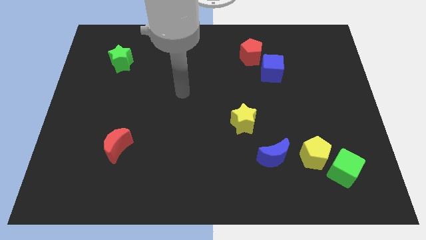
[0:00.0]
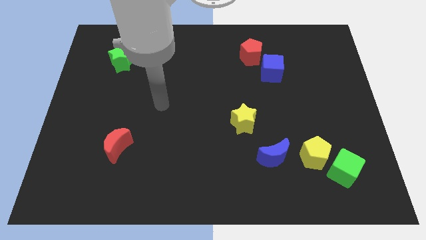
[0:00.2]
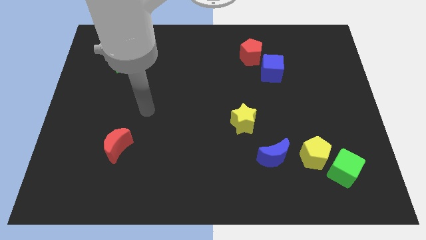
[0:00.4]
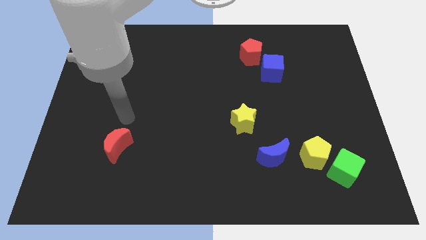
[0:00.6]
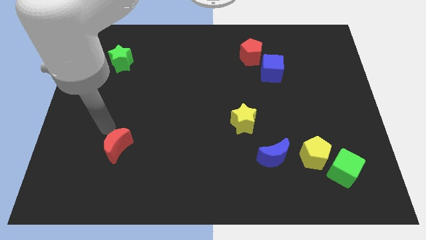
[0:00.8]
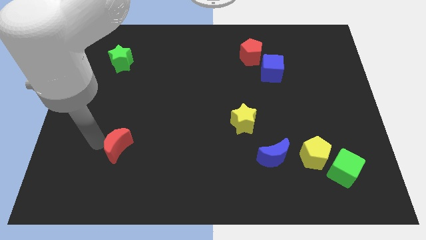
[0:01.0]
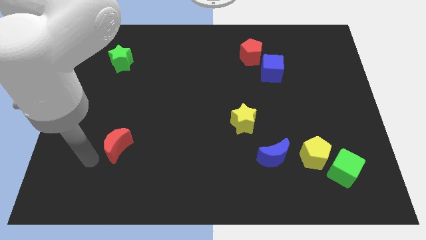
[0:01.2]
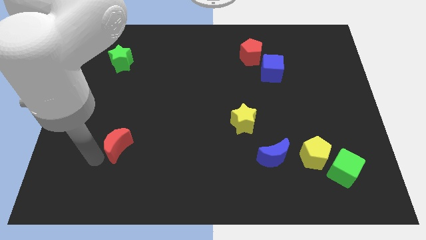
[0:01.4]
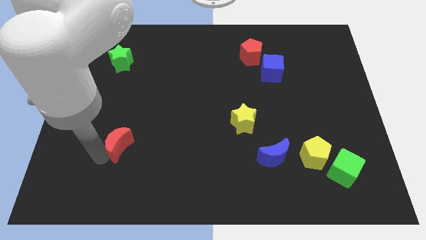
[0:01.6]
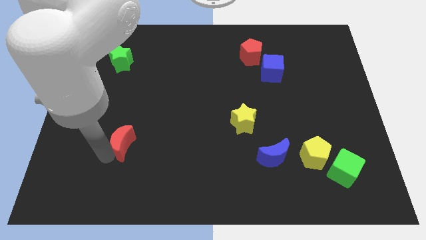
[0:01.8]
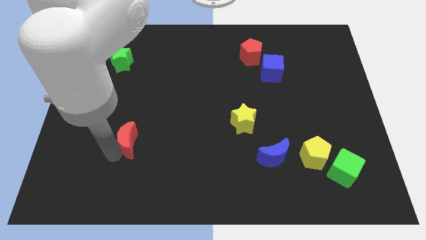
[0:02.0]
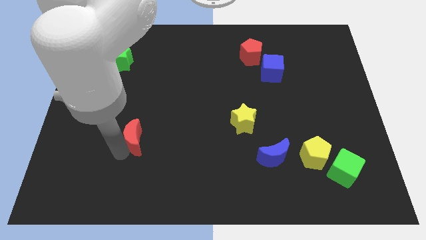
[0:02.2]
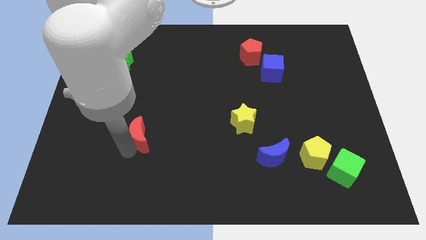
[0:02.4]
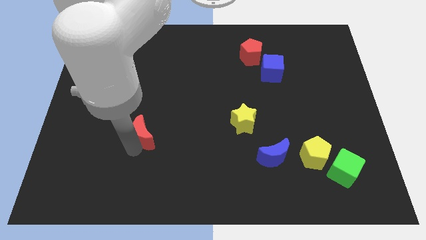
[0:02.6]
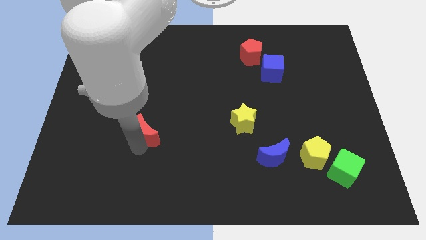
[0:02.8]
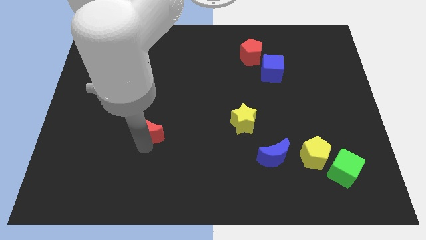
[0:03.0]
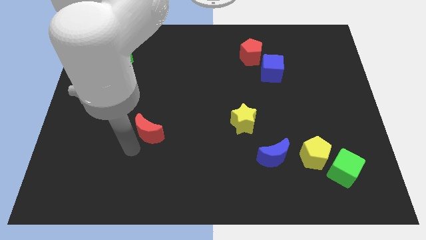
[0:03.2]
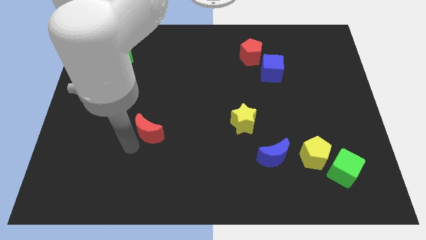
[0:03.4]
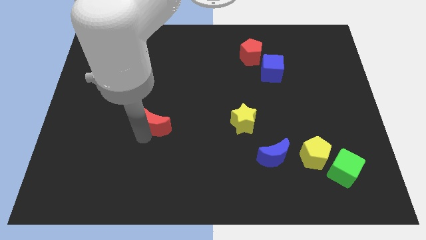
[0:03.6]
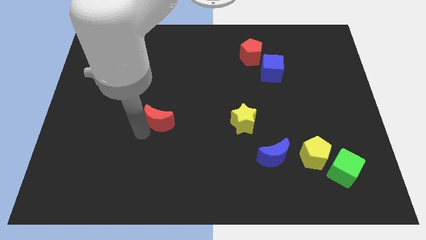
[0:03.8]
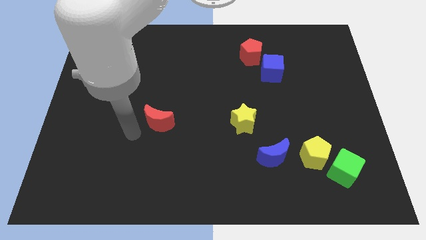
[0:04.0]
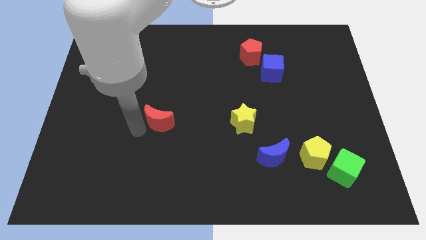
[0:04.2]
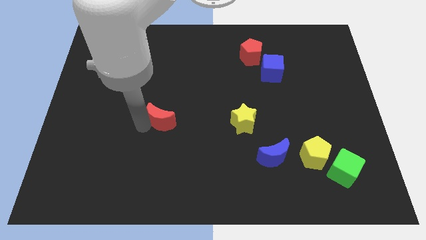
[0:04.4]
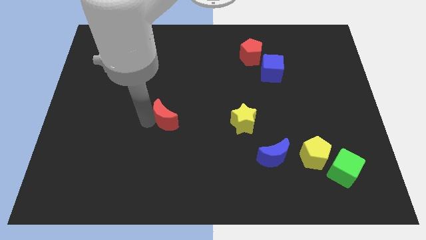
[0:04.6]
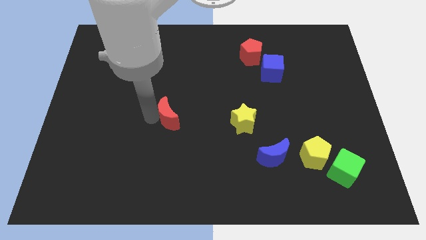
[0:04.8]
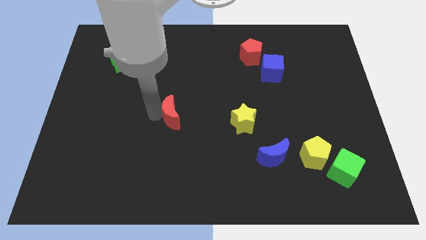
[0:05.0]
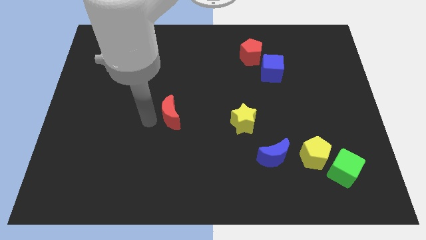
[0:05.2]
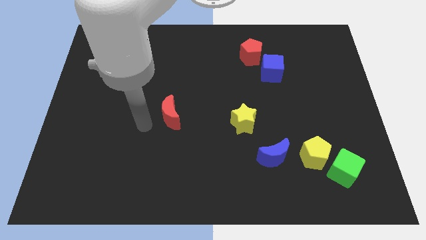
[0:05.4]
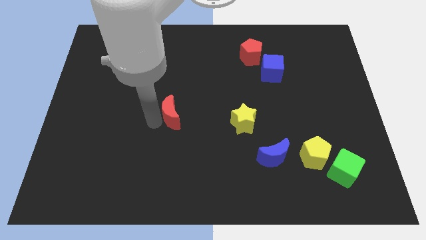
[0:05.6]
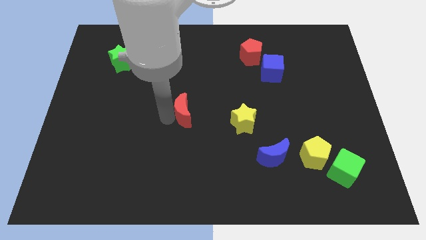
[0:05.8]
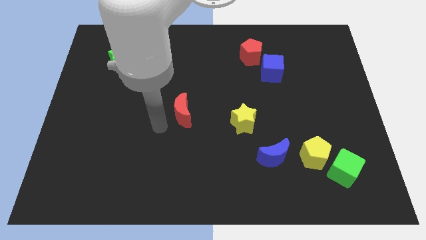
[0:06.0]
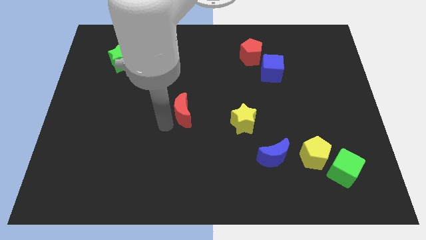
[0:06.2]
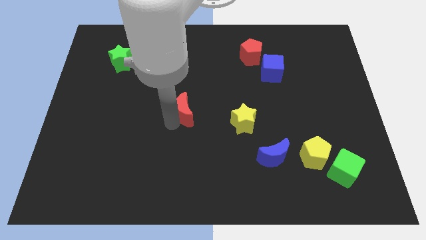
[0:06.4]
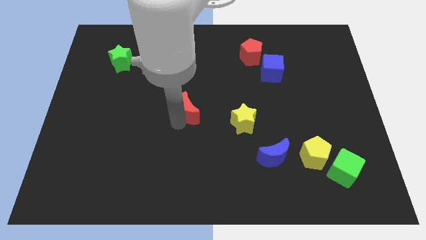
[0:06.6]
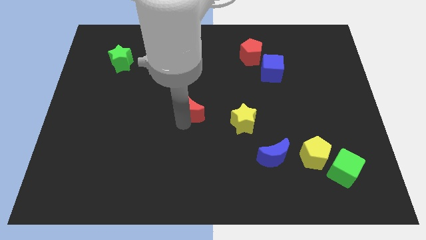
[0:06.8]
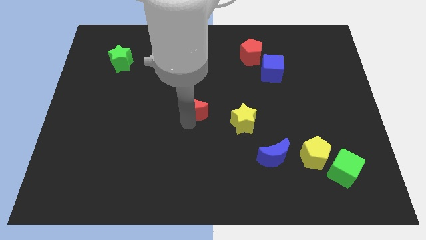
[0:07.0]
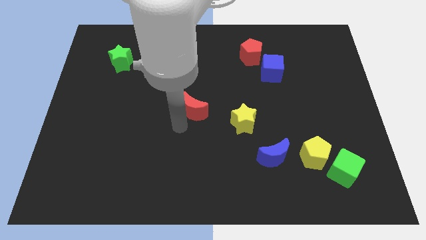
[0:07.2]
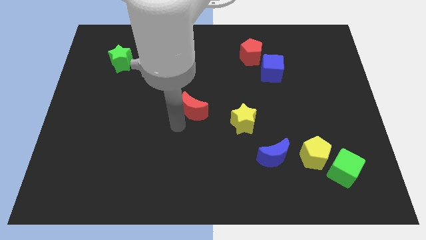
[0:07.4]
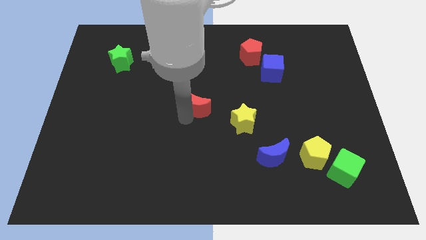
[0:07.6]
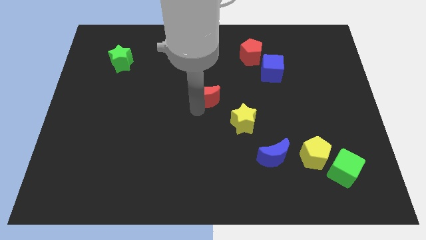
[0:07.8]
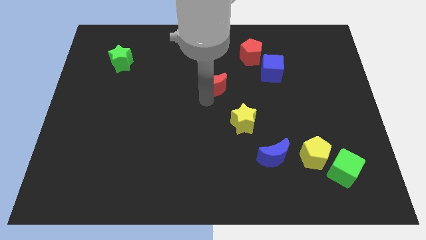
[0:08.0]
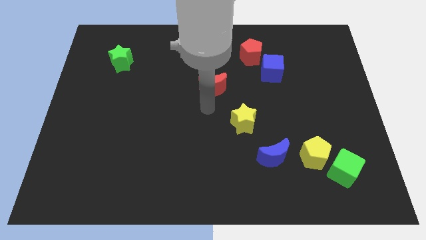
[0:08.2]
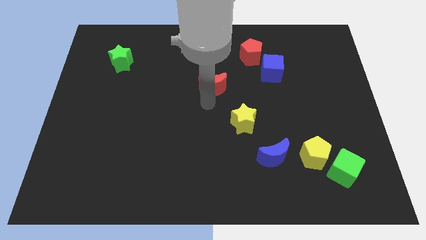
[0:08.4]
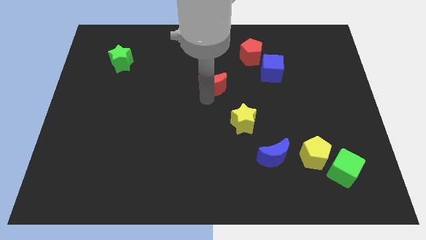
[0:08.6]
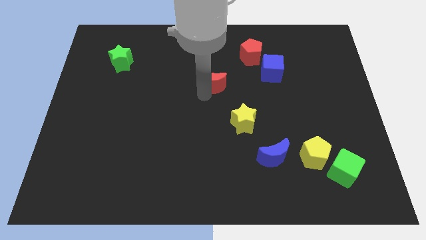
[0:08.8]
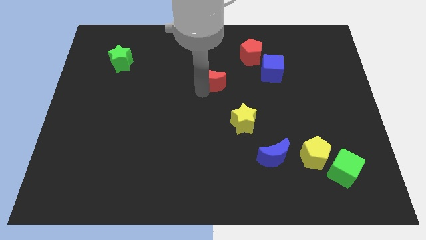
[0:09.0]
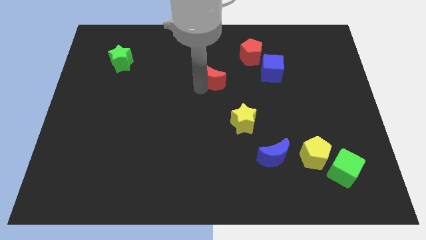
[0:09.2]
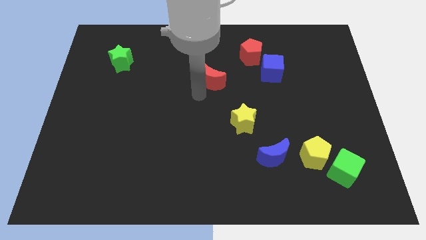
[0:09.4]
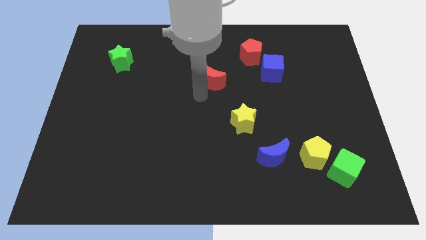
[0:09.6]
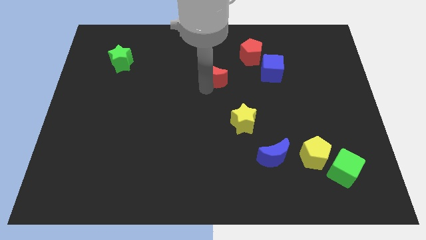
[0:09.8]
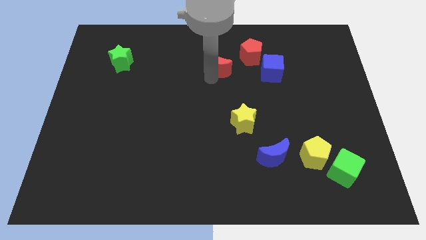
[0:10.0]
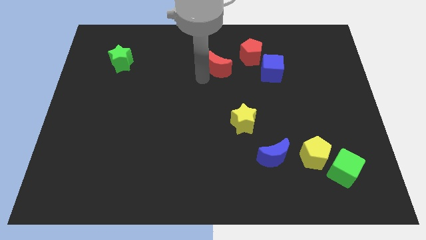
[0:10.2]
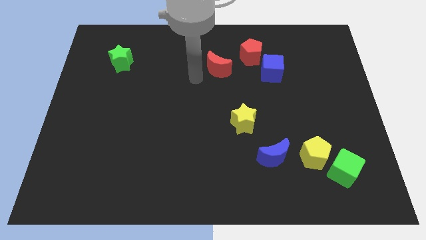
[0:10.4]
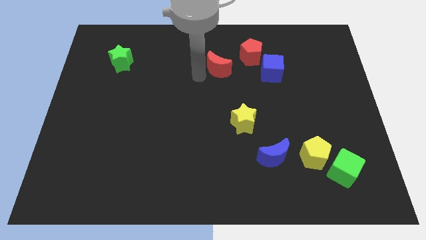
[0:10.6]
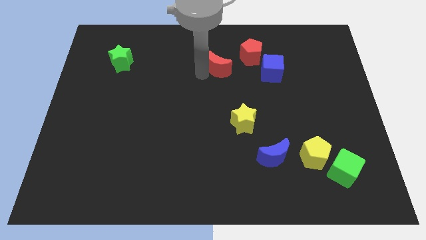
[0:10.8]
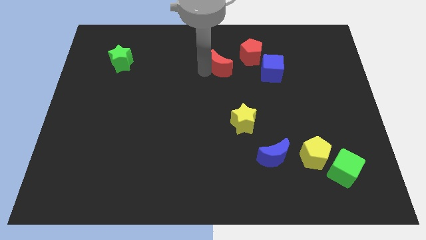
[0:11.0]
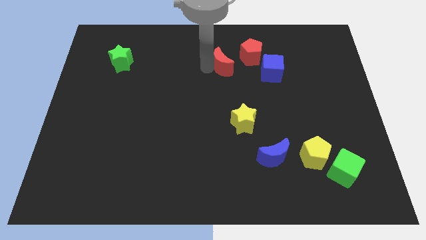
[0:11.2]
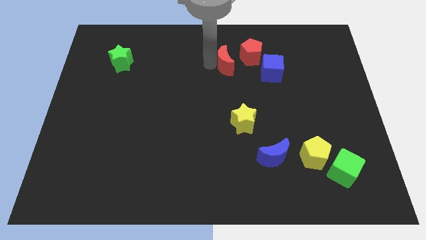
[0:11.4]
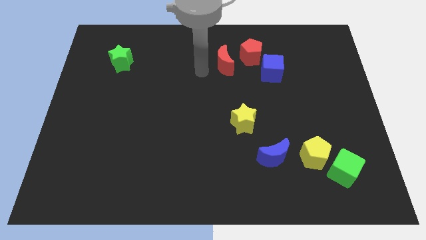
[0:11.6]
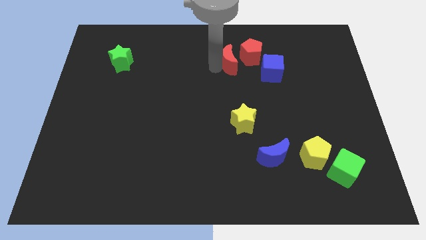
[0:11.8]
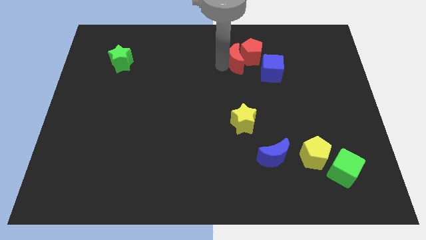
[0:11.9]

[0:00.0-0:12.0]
slide the red moon close to the red pentagon

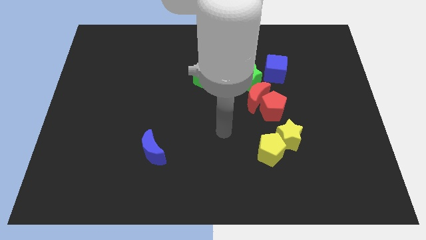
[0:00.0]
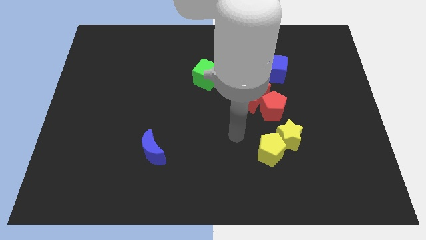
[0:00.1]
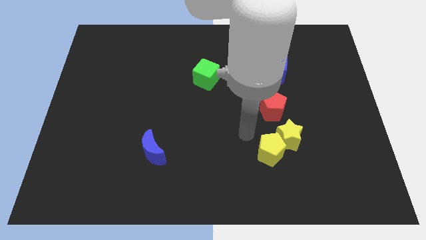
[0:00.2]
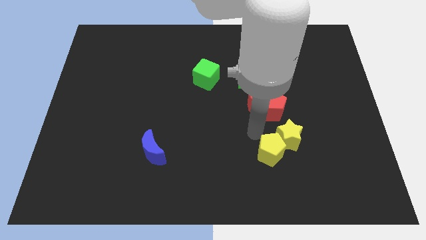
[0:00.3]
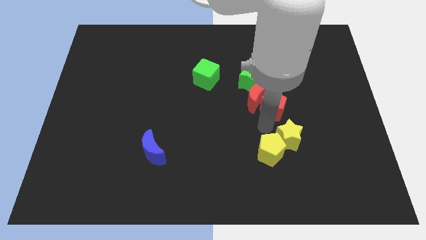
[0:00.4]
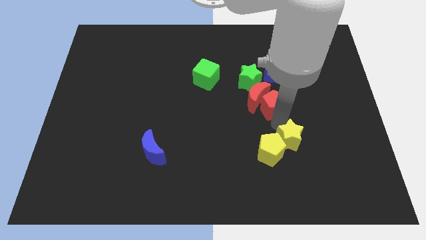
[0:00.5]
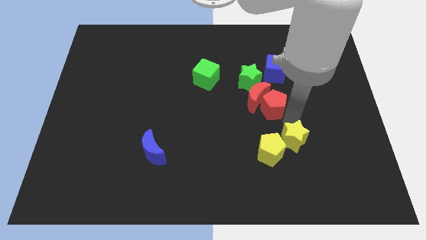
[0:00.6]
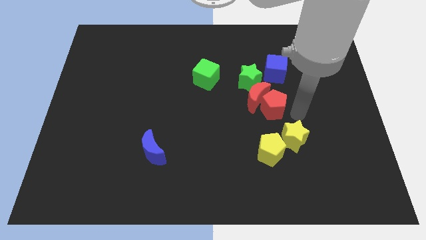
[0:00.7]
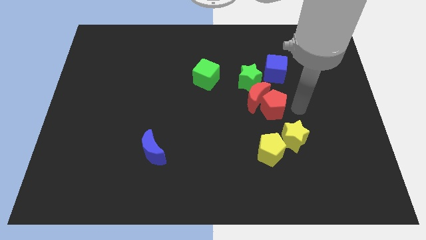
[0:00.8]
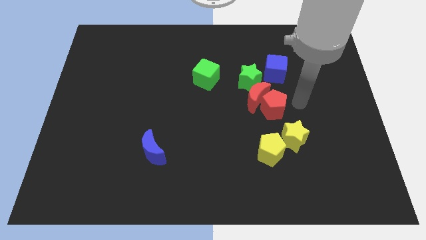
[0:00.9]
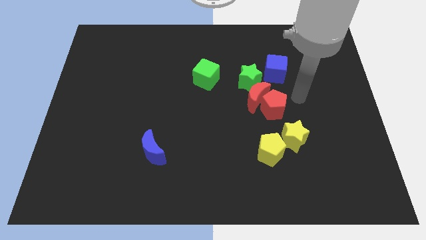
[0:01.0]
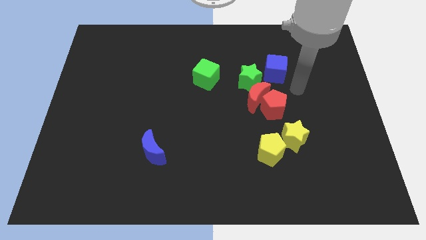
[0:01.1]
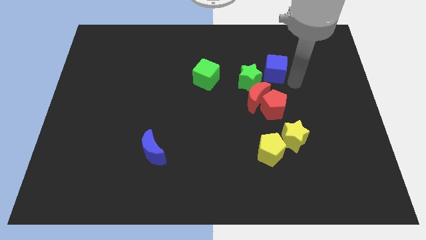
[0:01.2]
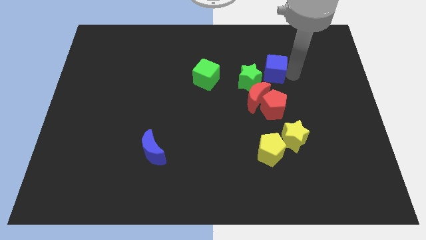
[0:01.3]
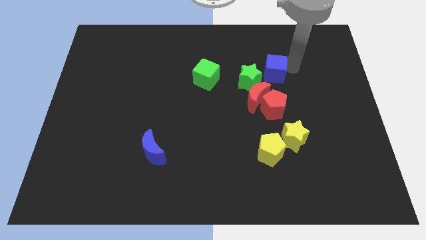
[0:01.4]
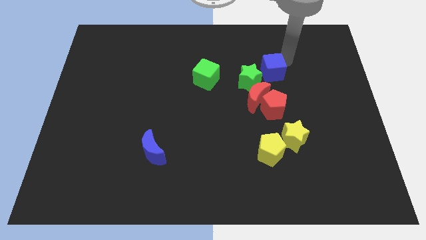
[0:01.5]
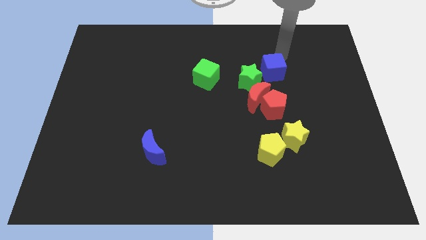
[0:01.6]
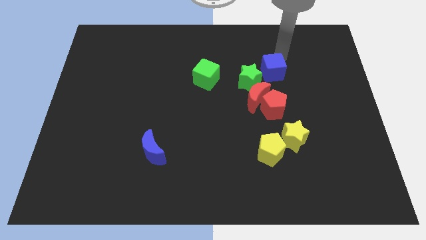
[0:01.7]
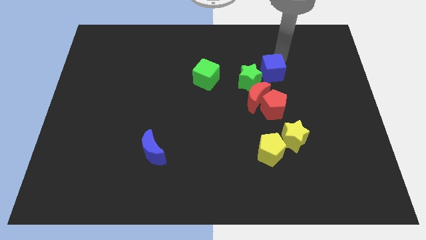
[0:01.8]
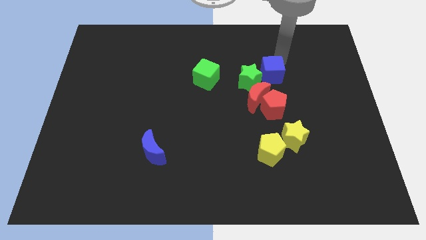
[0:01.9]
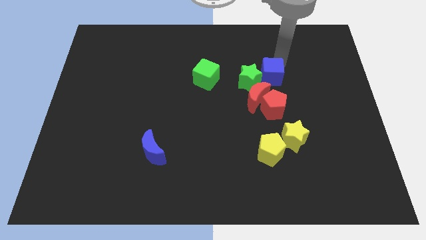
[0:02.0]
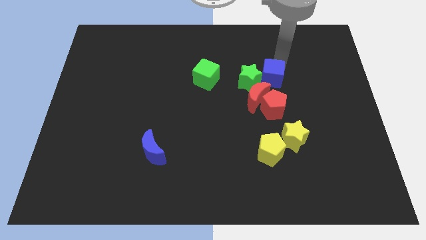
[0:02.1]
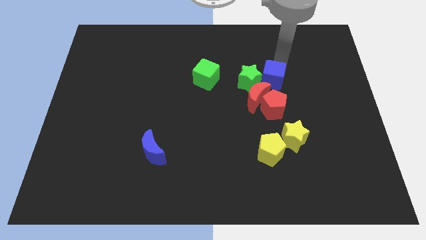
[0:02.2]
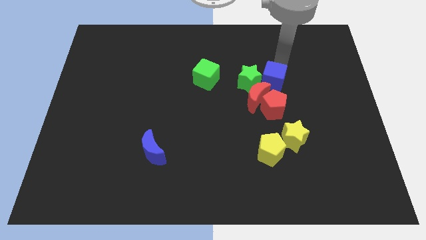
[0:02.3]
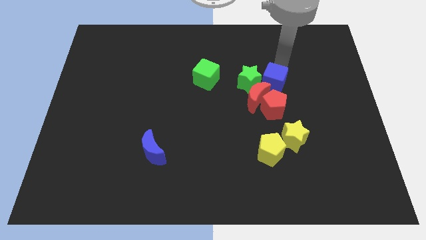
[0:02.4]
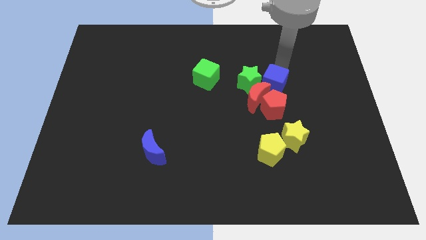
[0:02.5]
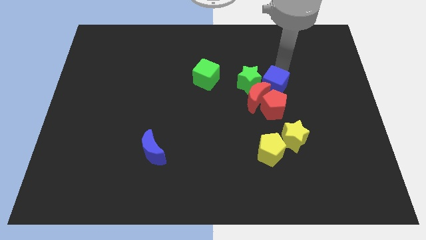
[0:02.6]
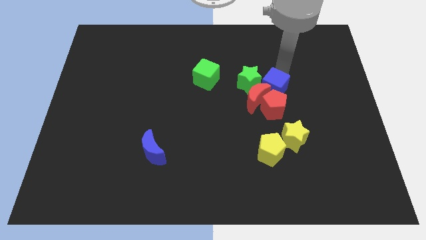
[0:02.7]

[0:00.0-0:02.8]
push the blue cube to the red moon
